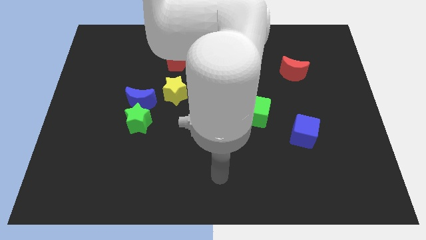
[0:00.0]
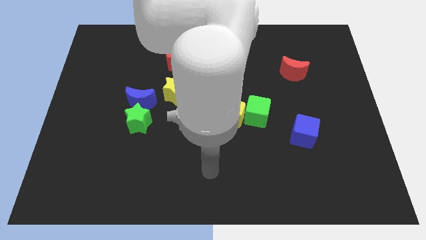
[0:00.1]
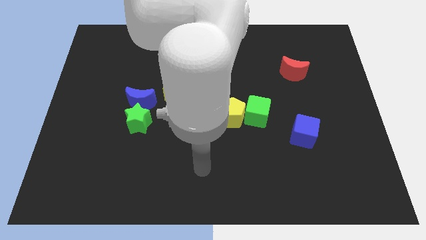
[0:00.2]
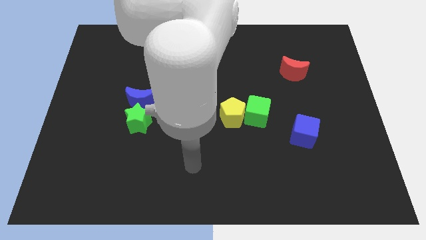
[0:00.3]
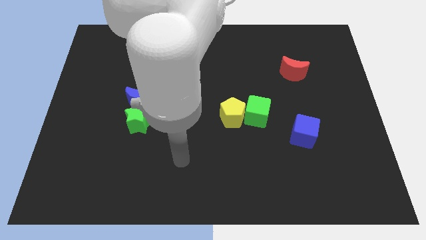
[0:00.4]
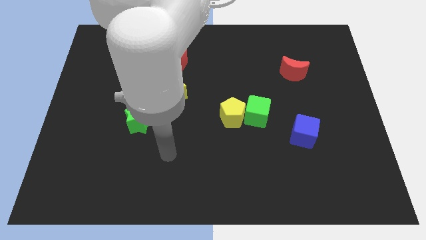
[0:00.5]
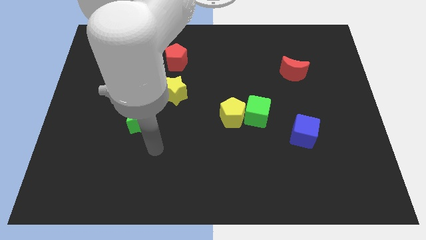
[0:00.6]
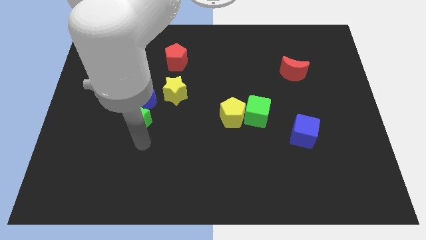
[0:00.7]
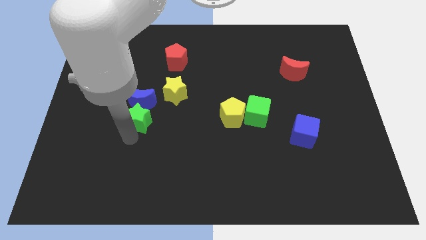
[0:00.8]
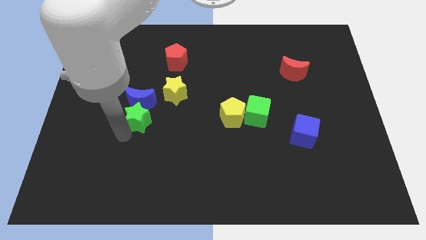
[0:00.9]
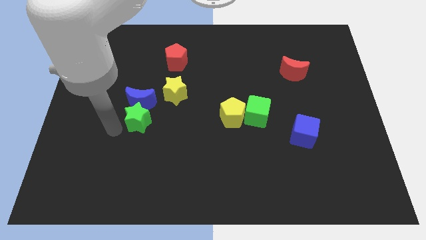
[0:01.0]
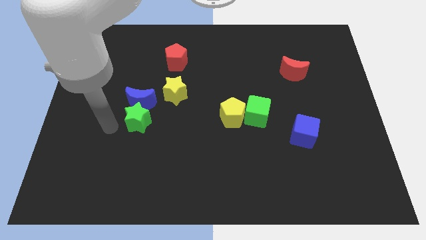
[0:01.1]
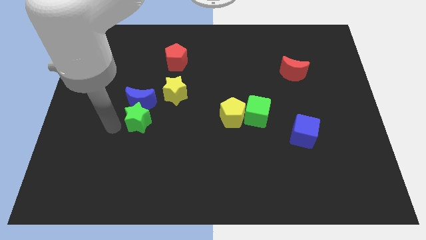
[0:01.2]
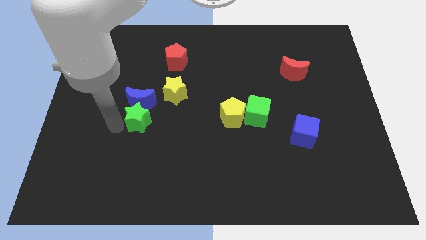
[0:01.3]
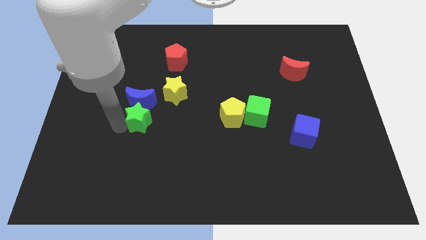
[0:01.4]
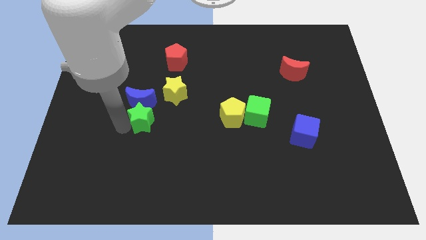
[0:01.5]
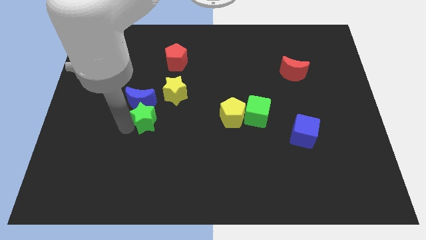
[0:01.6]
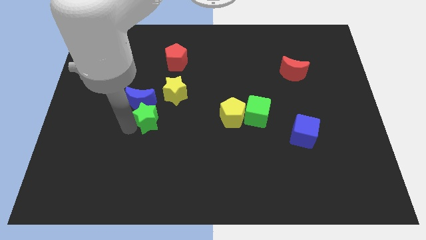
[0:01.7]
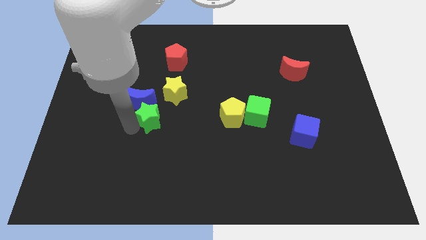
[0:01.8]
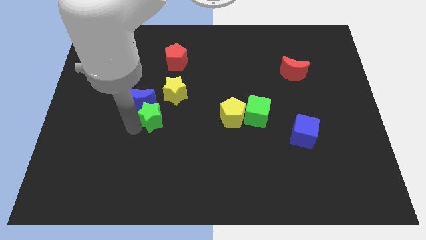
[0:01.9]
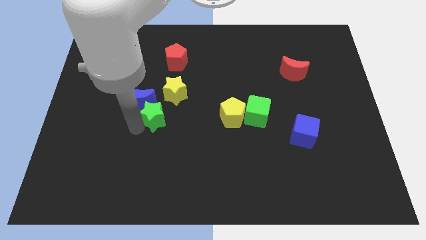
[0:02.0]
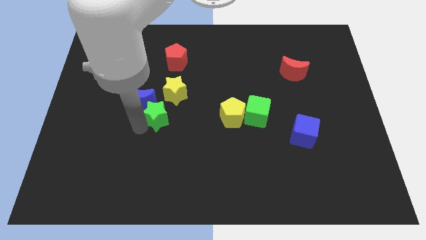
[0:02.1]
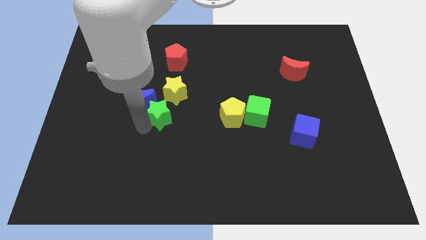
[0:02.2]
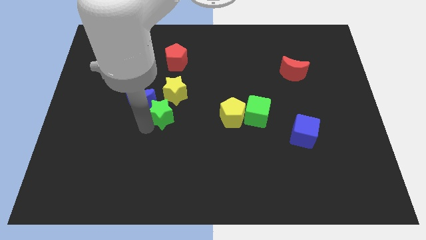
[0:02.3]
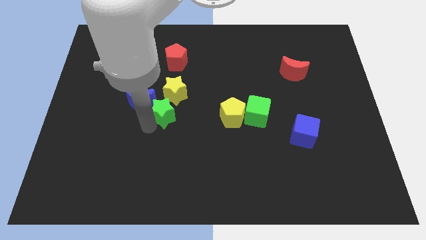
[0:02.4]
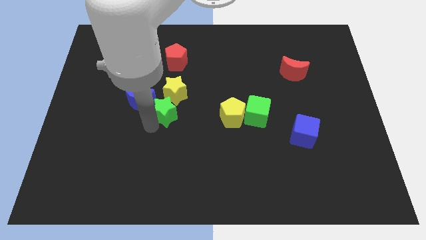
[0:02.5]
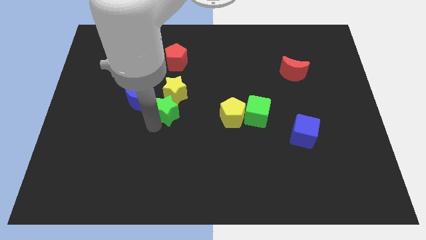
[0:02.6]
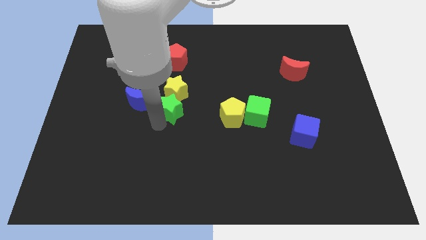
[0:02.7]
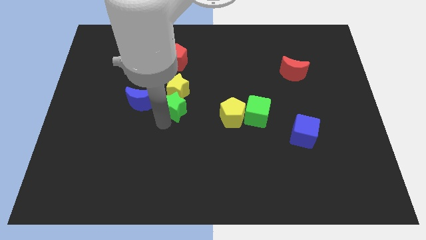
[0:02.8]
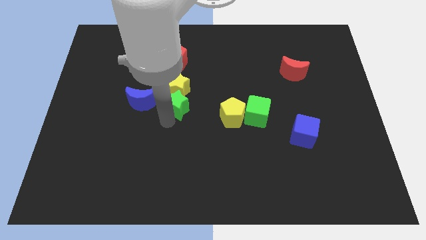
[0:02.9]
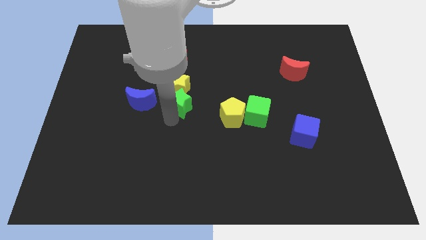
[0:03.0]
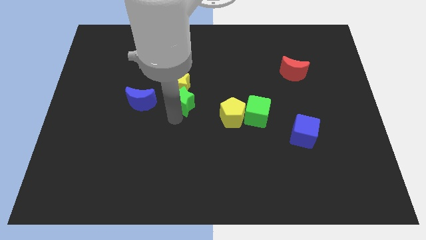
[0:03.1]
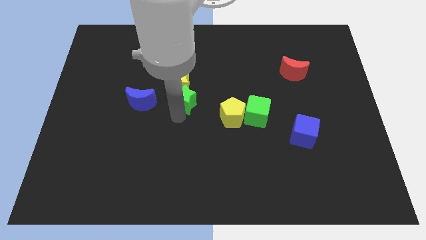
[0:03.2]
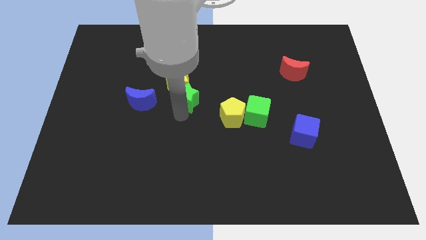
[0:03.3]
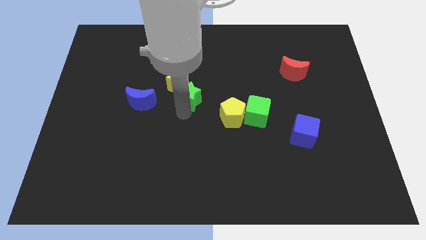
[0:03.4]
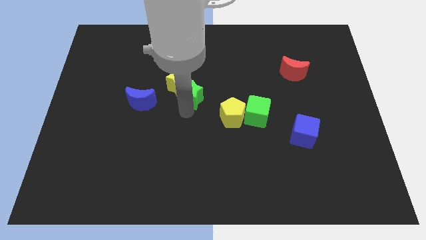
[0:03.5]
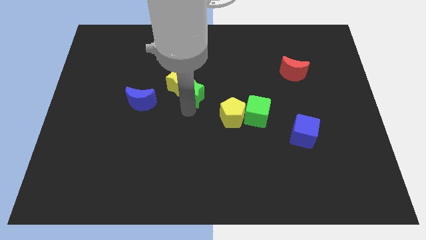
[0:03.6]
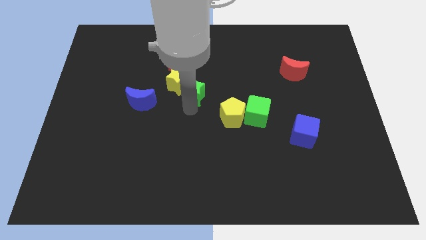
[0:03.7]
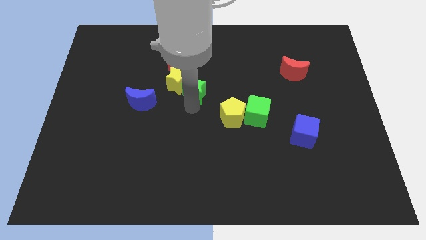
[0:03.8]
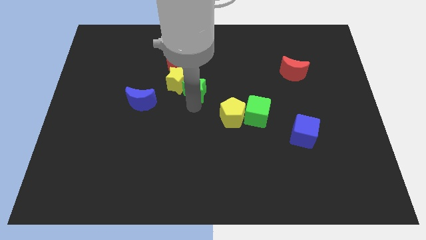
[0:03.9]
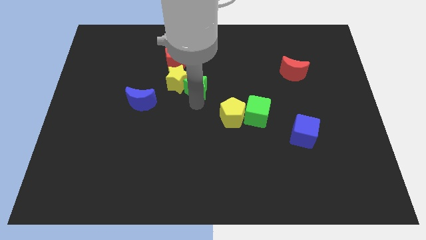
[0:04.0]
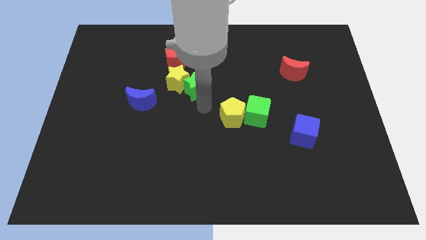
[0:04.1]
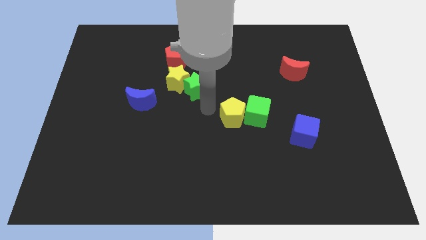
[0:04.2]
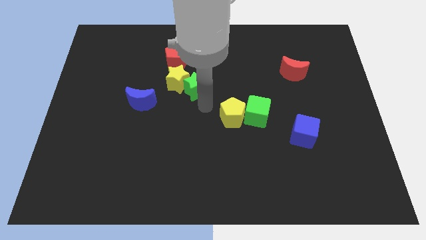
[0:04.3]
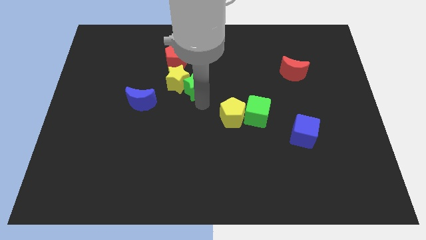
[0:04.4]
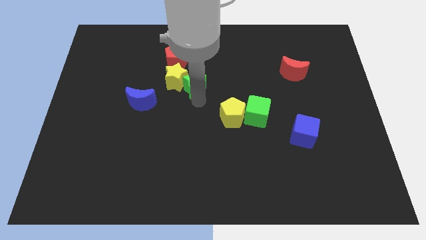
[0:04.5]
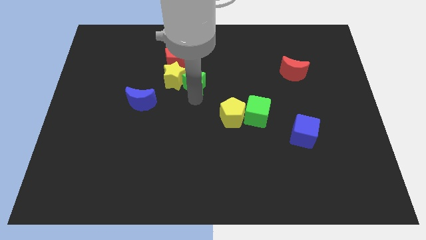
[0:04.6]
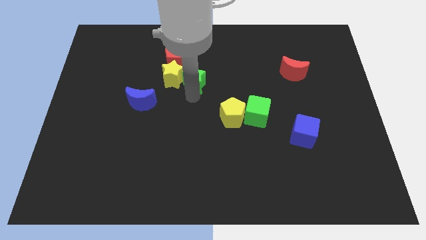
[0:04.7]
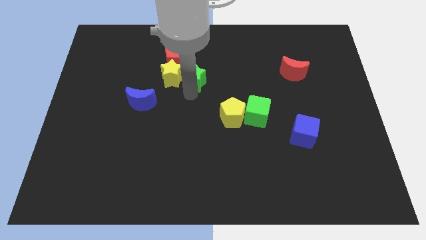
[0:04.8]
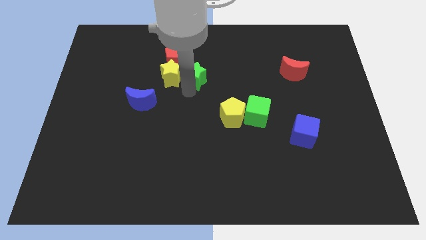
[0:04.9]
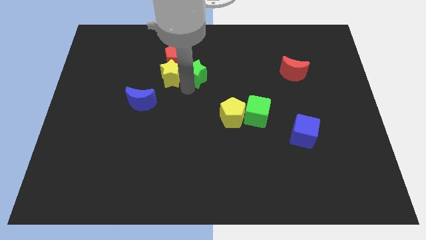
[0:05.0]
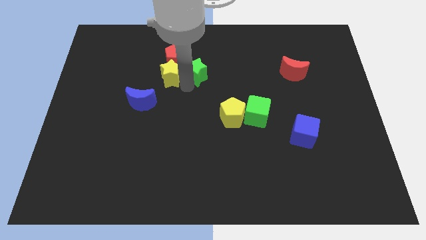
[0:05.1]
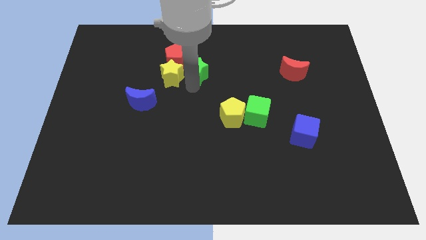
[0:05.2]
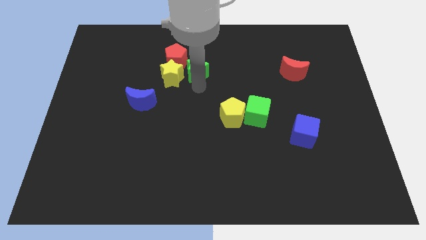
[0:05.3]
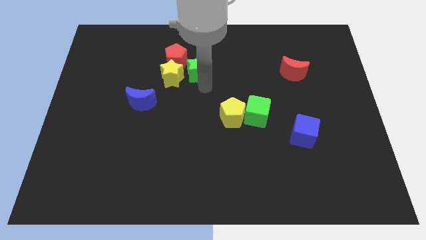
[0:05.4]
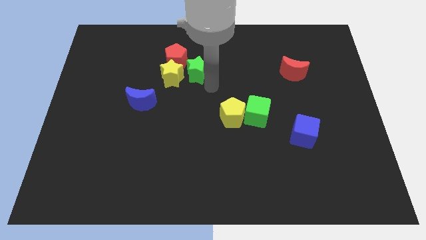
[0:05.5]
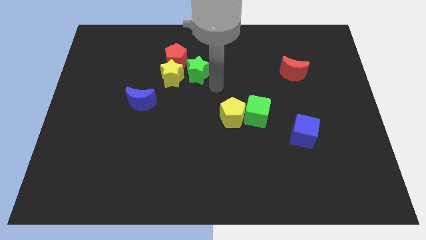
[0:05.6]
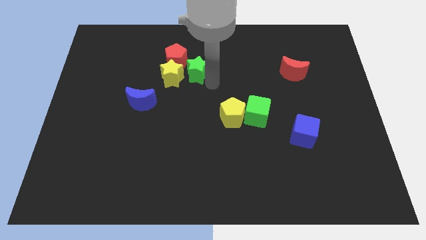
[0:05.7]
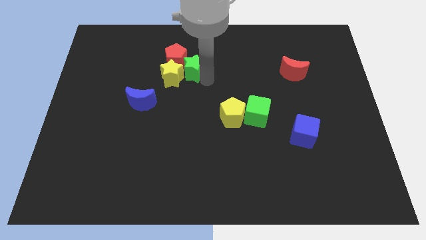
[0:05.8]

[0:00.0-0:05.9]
move the green star towards the red pentagon

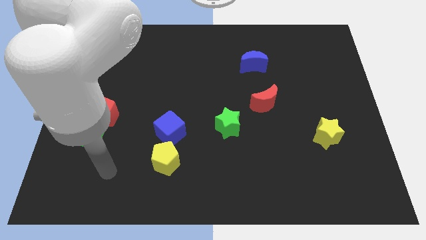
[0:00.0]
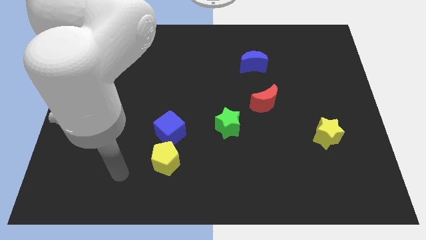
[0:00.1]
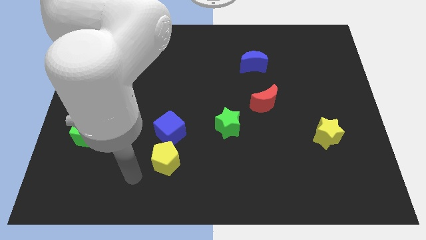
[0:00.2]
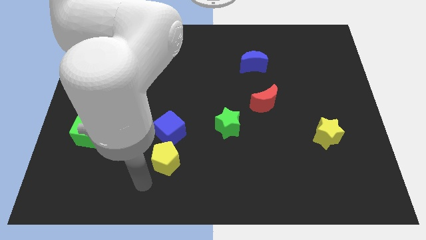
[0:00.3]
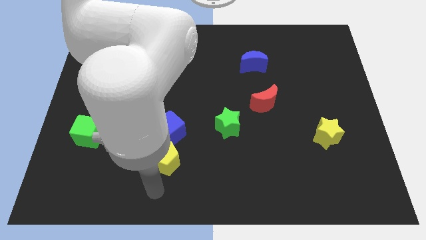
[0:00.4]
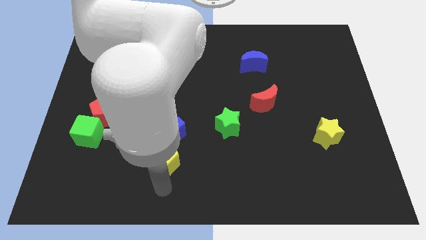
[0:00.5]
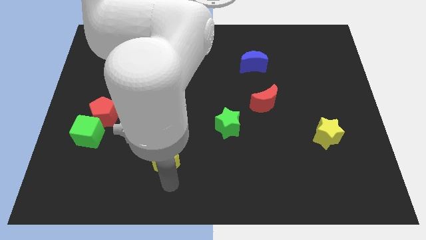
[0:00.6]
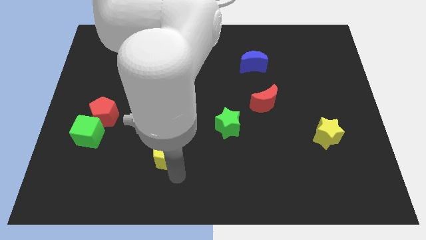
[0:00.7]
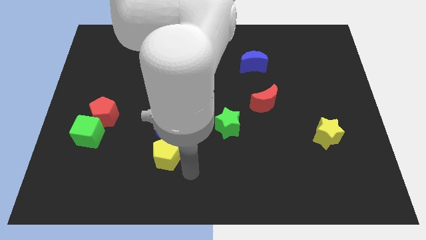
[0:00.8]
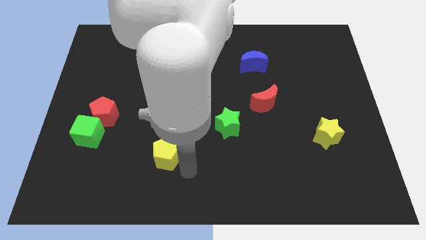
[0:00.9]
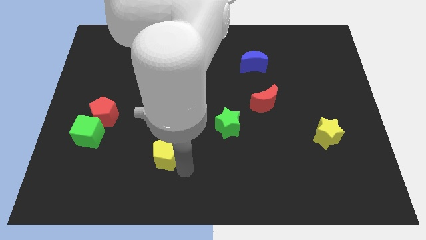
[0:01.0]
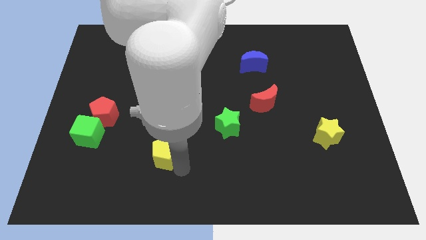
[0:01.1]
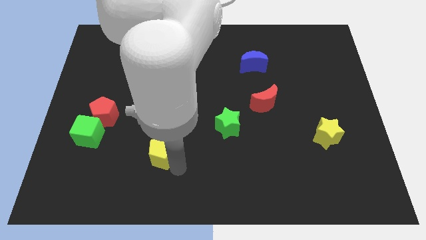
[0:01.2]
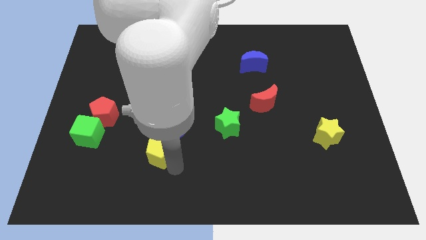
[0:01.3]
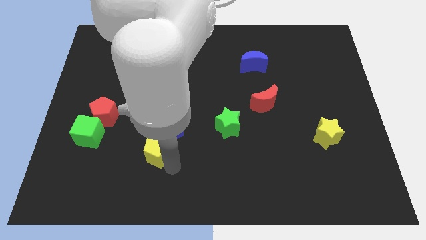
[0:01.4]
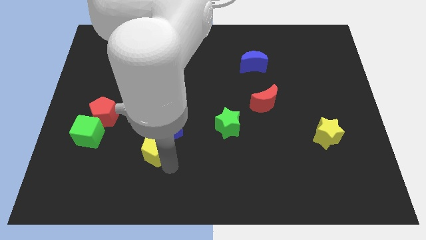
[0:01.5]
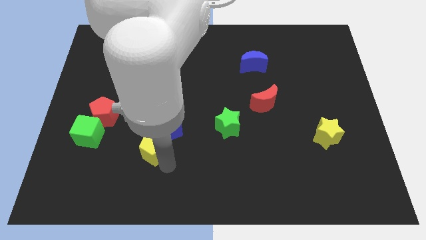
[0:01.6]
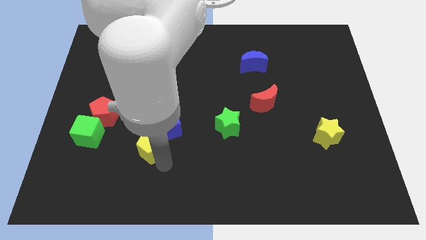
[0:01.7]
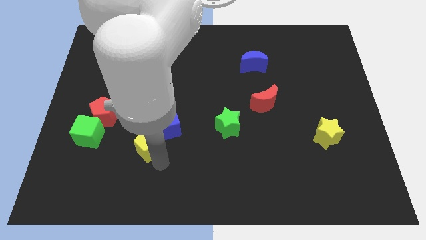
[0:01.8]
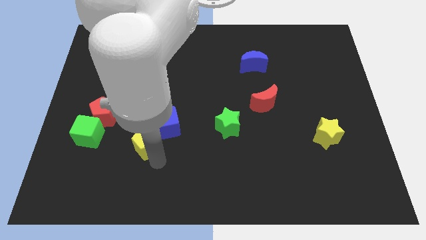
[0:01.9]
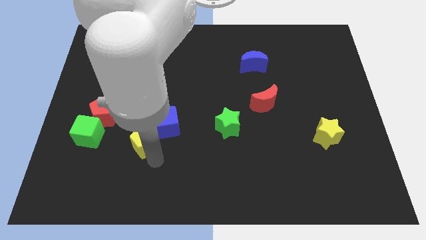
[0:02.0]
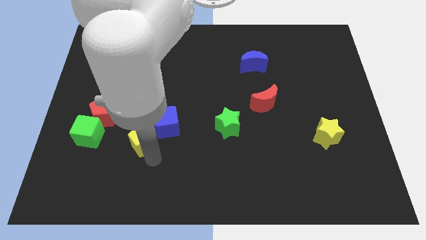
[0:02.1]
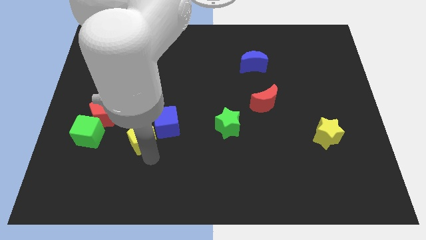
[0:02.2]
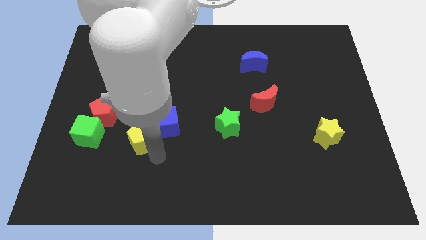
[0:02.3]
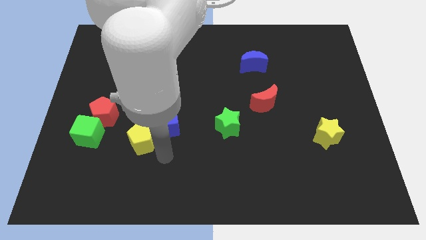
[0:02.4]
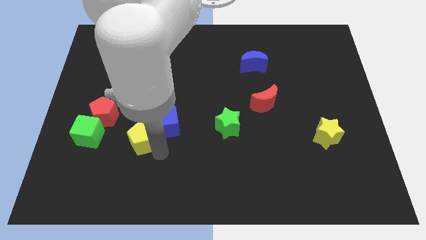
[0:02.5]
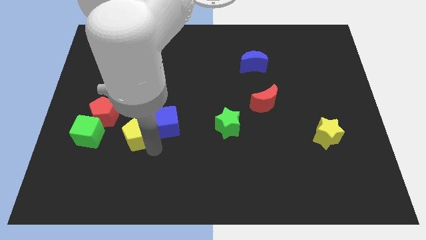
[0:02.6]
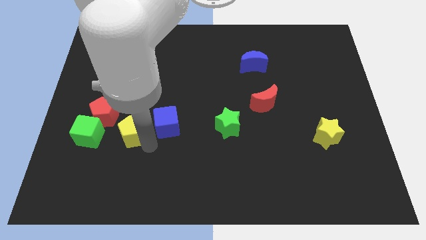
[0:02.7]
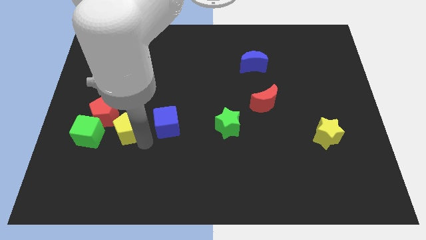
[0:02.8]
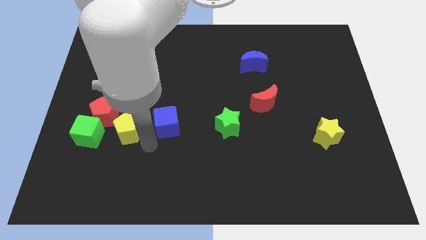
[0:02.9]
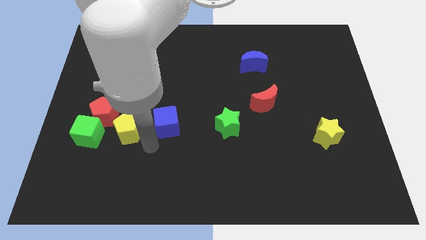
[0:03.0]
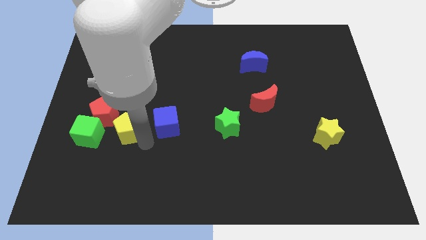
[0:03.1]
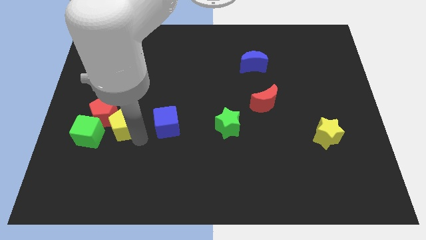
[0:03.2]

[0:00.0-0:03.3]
move the yellow pentagon close to the red pentagon
